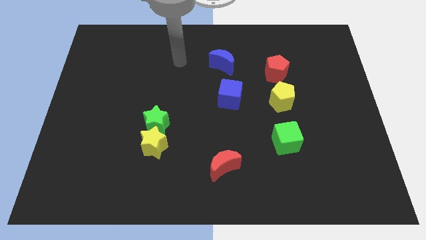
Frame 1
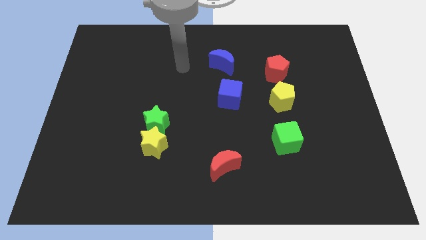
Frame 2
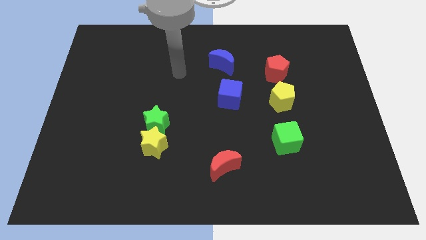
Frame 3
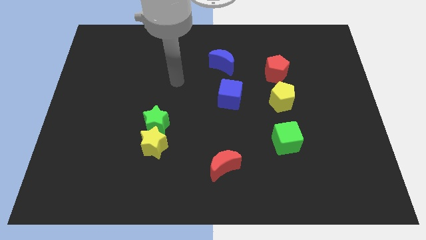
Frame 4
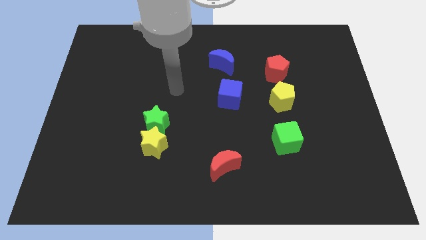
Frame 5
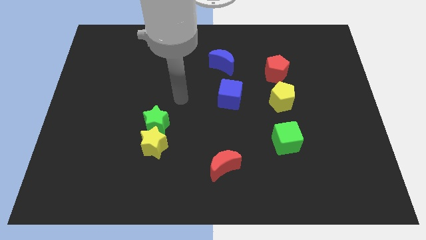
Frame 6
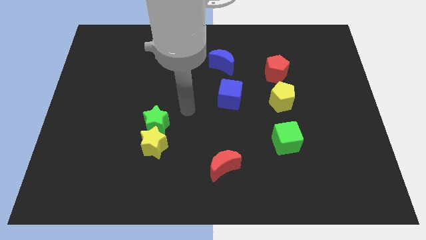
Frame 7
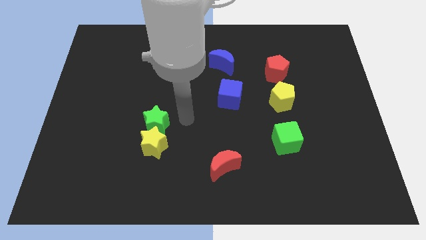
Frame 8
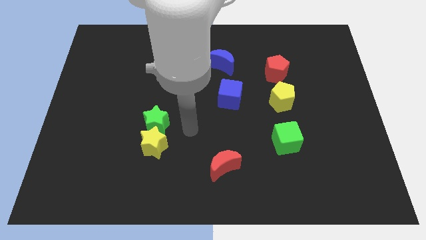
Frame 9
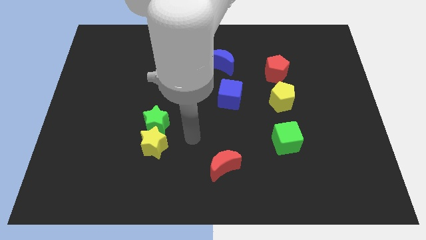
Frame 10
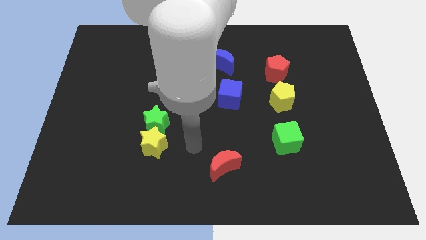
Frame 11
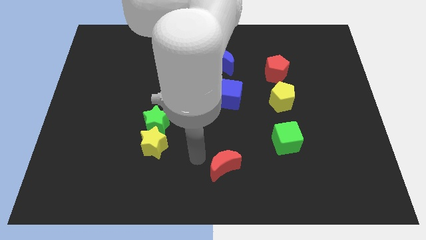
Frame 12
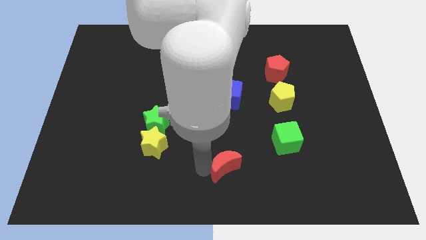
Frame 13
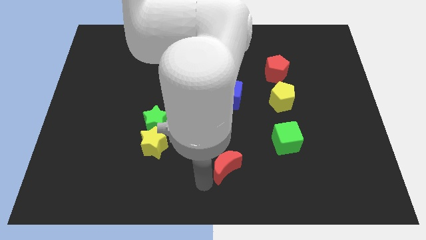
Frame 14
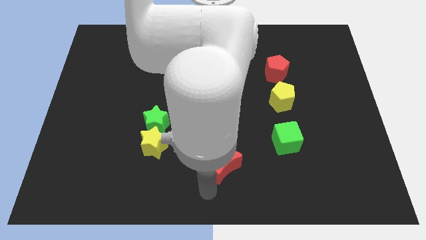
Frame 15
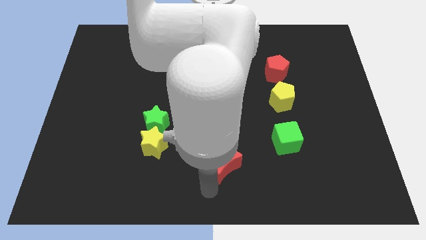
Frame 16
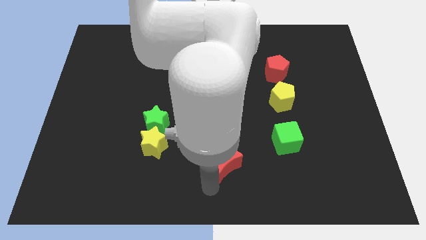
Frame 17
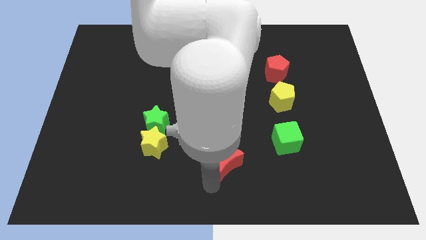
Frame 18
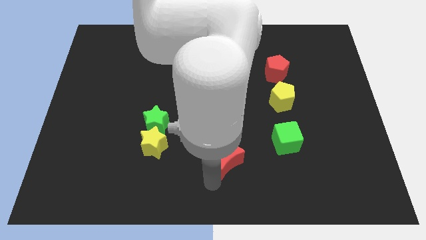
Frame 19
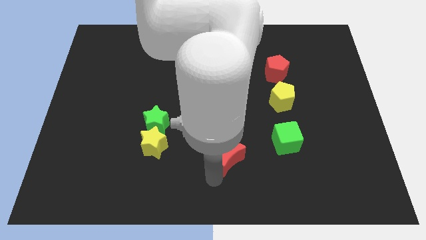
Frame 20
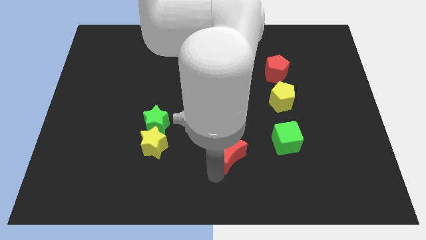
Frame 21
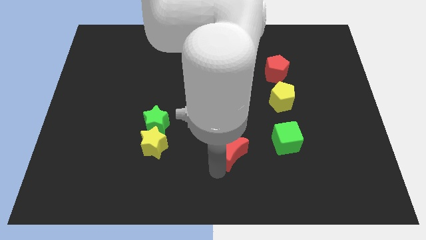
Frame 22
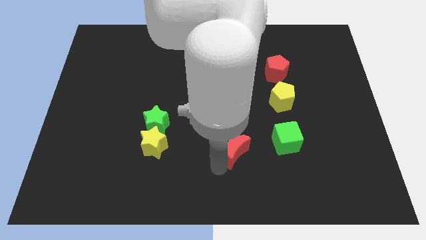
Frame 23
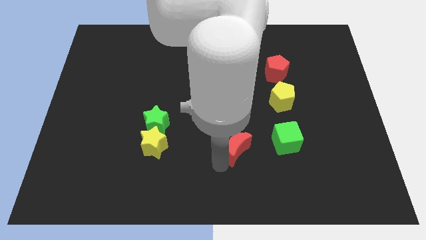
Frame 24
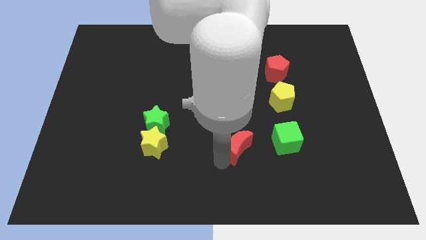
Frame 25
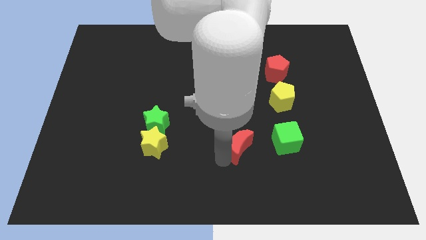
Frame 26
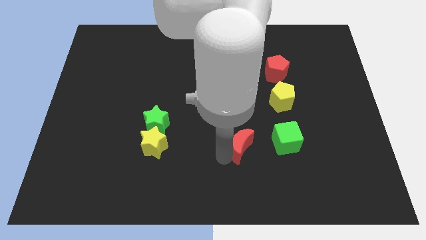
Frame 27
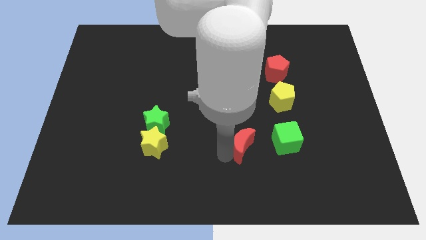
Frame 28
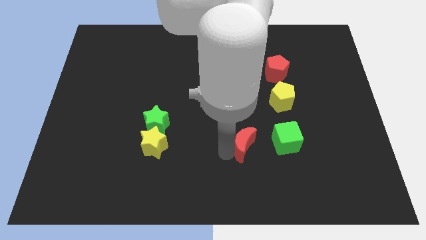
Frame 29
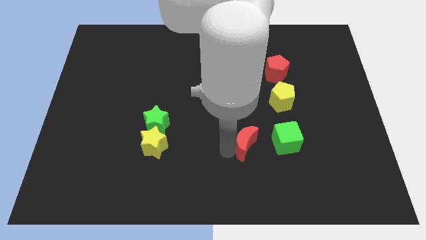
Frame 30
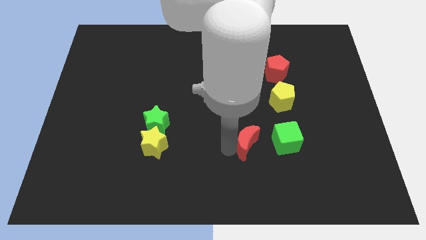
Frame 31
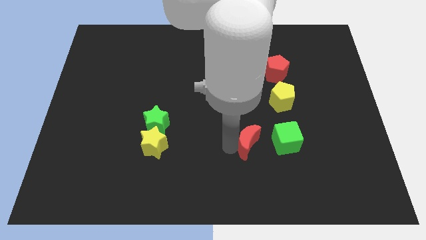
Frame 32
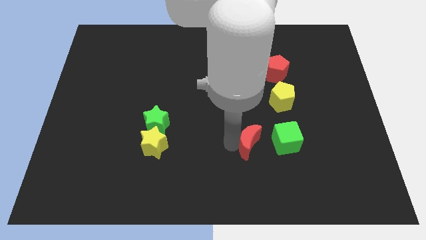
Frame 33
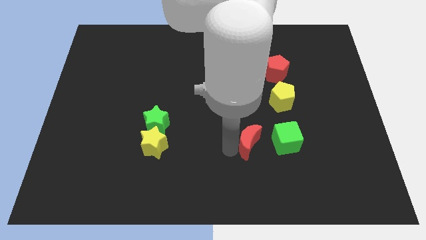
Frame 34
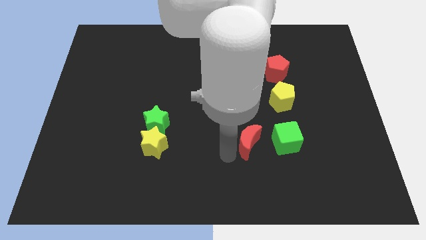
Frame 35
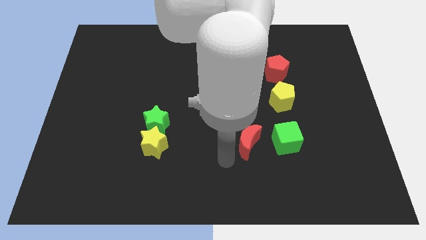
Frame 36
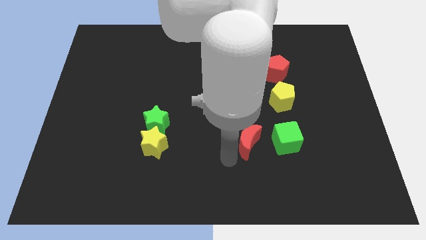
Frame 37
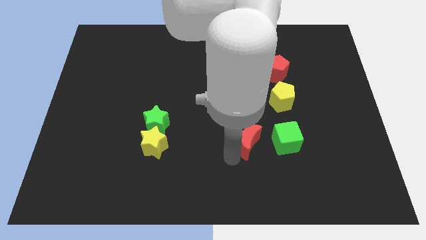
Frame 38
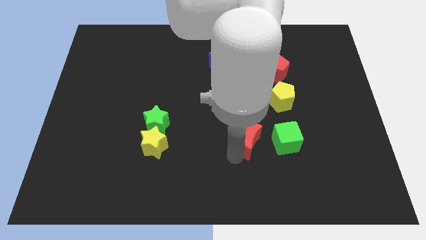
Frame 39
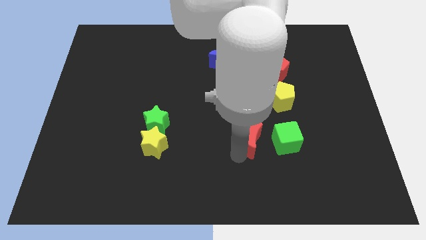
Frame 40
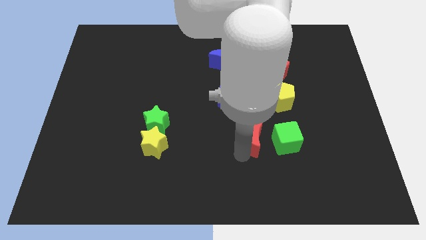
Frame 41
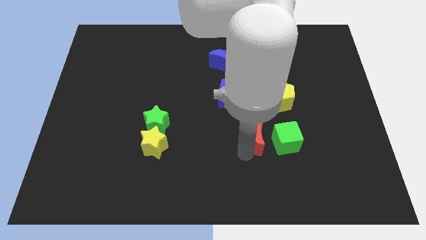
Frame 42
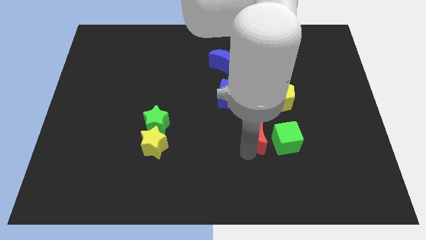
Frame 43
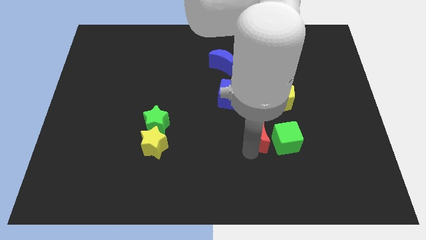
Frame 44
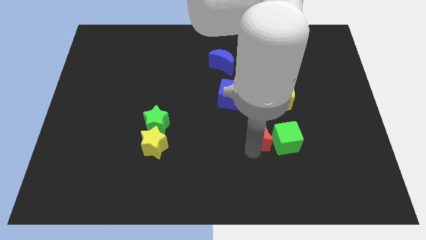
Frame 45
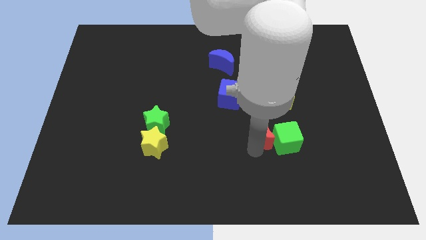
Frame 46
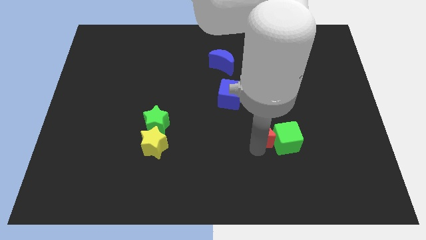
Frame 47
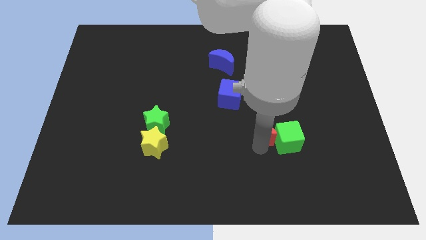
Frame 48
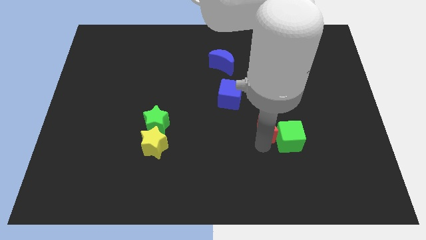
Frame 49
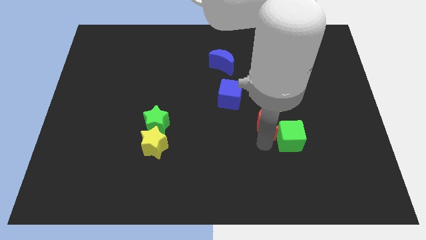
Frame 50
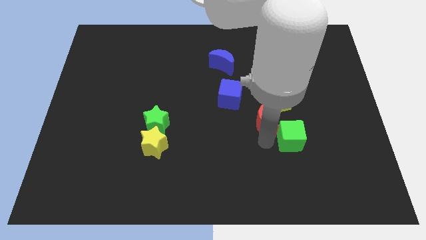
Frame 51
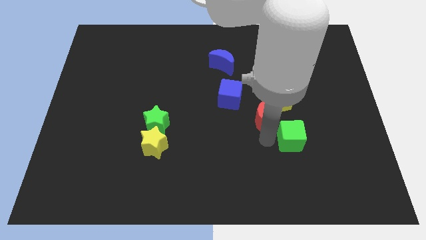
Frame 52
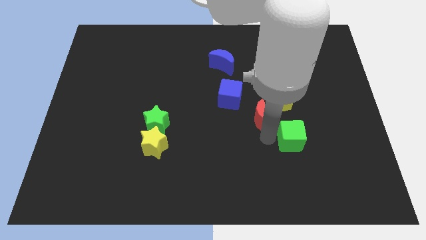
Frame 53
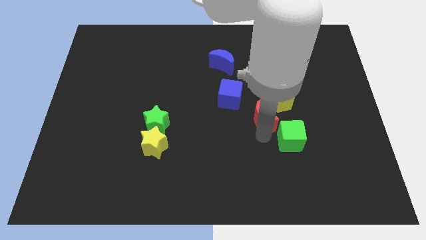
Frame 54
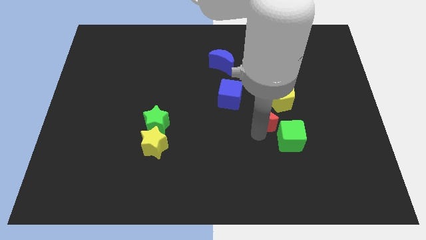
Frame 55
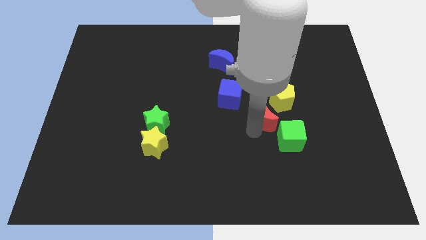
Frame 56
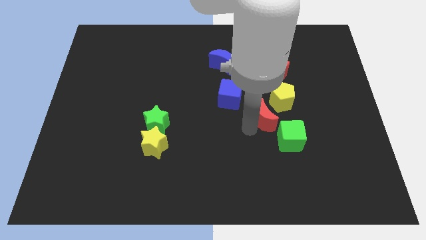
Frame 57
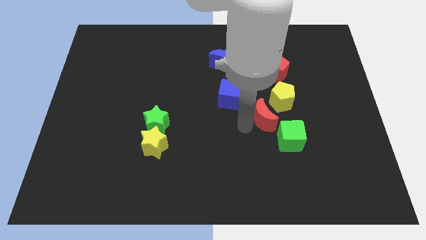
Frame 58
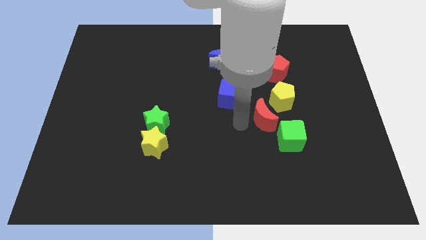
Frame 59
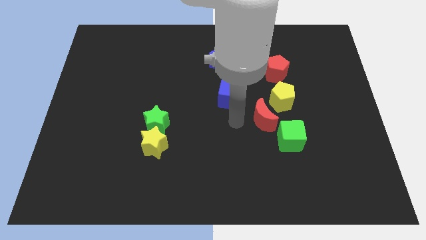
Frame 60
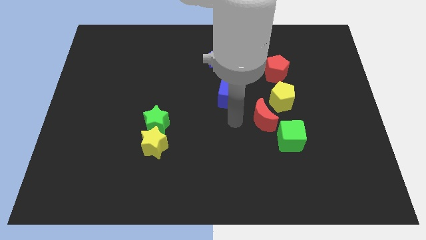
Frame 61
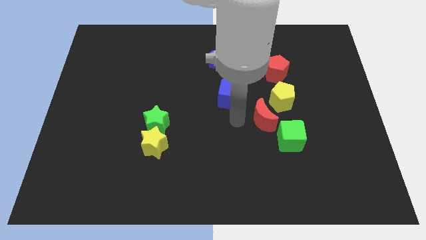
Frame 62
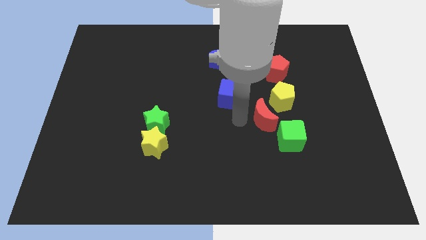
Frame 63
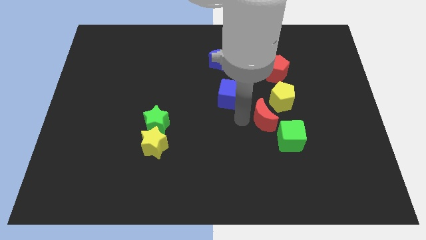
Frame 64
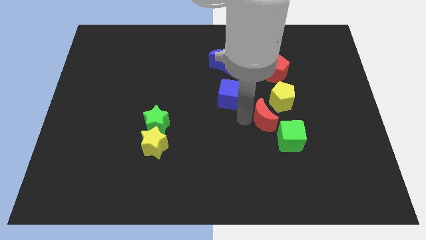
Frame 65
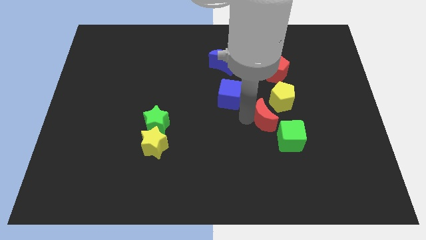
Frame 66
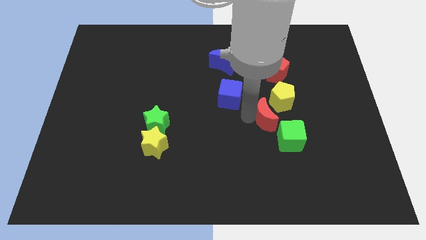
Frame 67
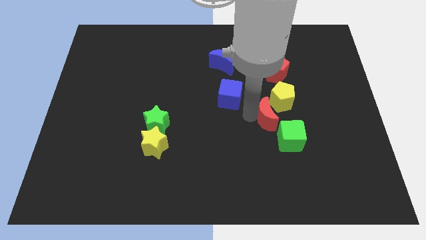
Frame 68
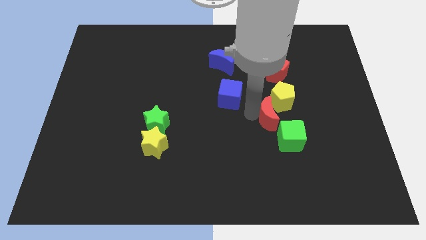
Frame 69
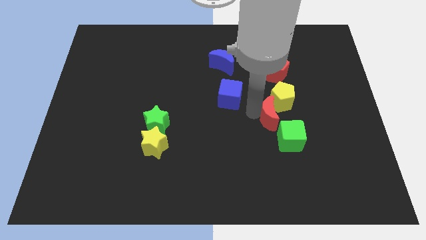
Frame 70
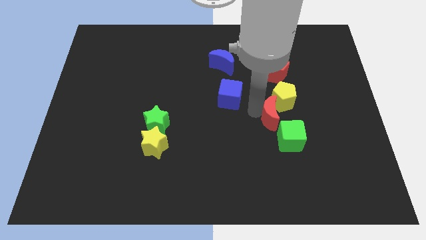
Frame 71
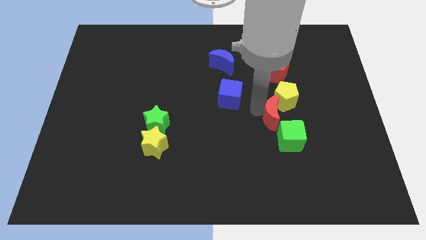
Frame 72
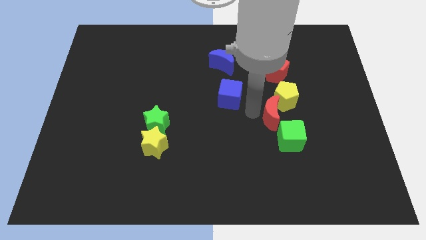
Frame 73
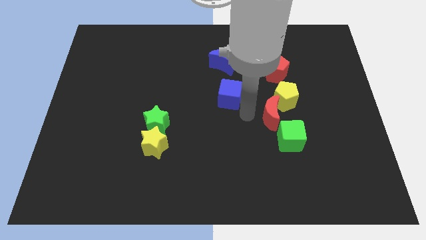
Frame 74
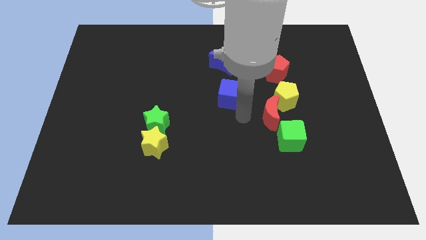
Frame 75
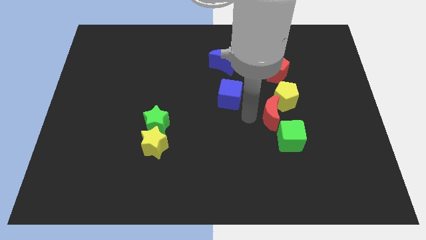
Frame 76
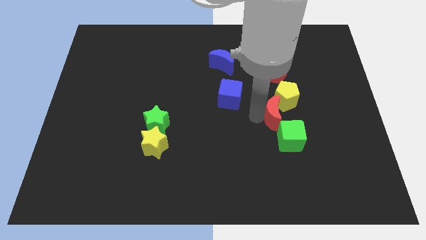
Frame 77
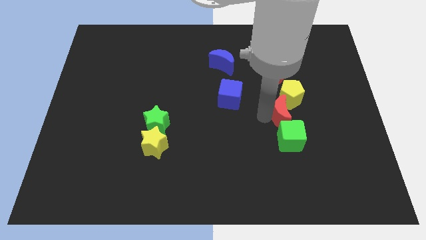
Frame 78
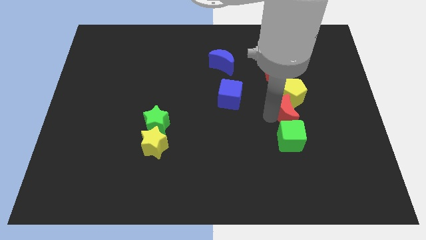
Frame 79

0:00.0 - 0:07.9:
slide the red moon diagonally up and to the right
